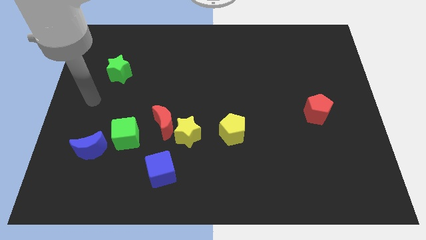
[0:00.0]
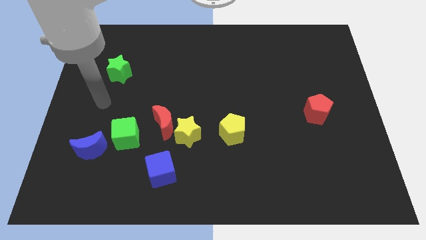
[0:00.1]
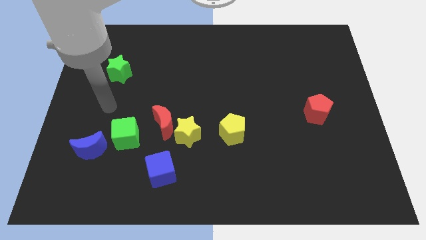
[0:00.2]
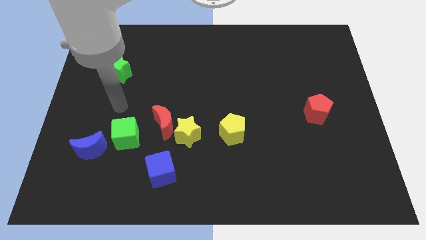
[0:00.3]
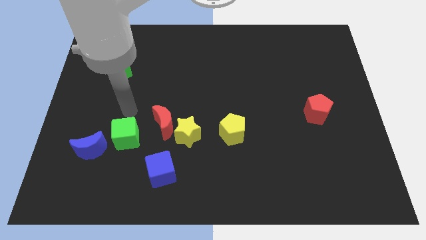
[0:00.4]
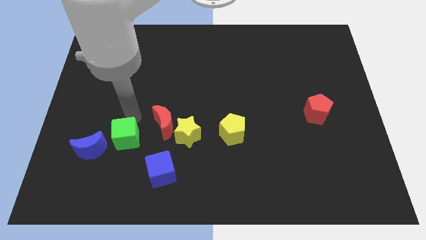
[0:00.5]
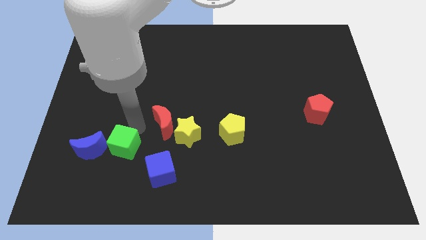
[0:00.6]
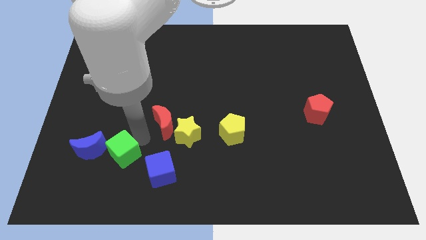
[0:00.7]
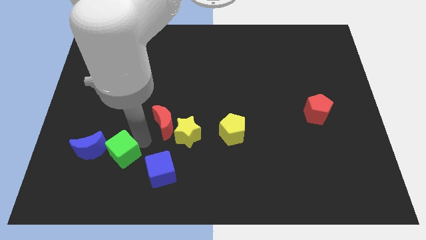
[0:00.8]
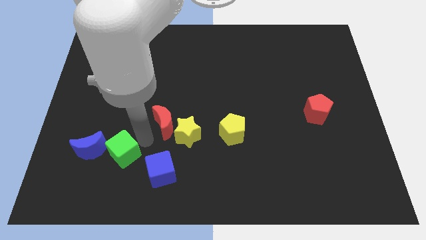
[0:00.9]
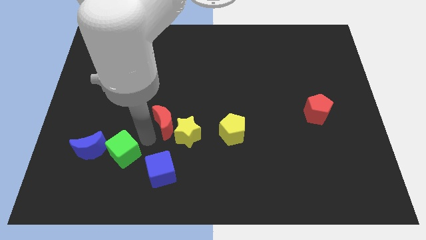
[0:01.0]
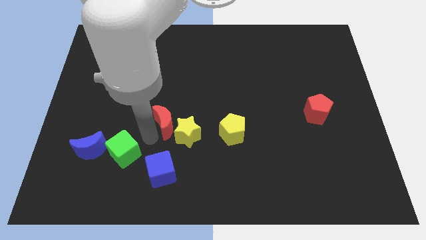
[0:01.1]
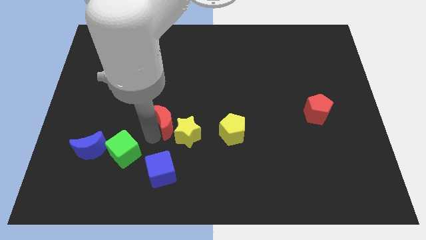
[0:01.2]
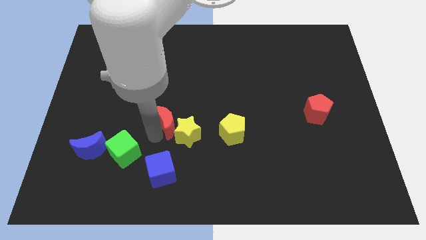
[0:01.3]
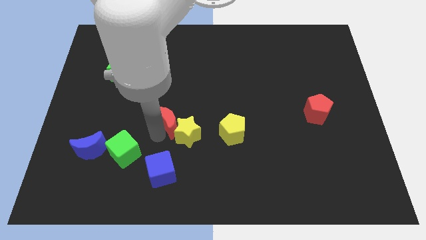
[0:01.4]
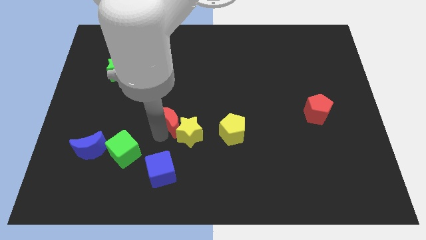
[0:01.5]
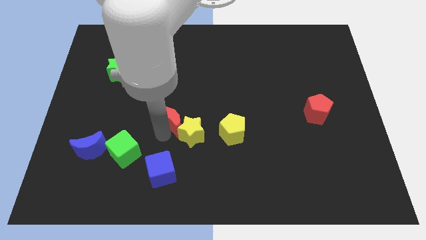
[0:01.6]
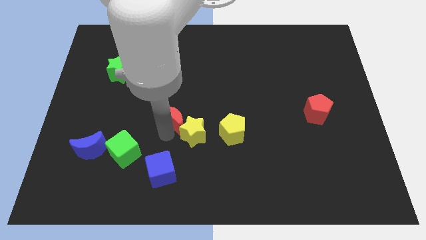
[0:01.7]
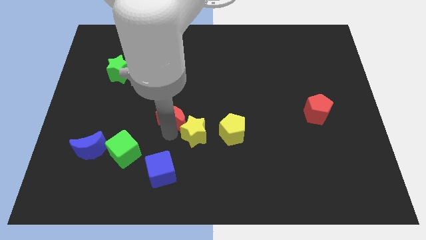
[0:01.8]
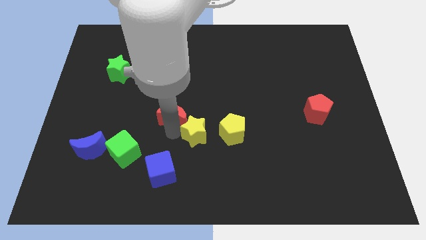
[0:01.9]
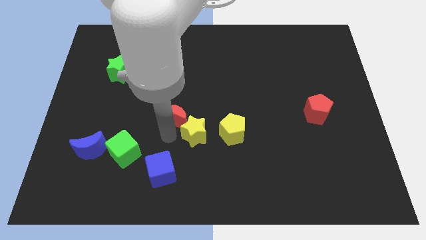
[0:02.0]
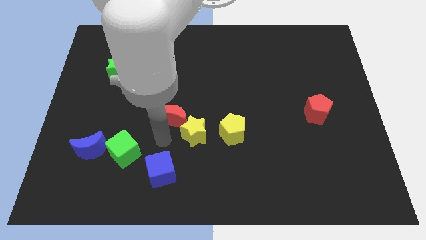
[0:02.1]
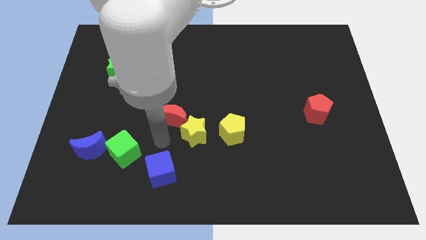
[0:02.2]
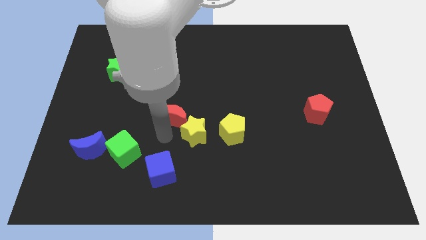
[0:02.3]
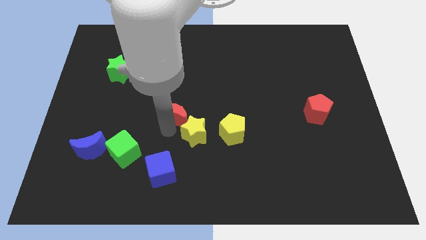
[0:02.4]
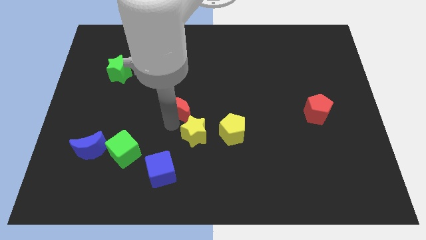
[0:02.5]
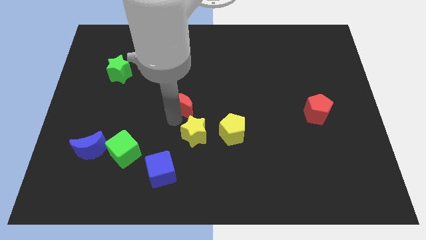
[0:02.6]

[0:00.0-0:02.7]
pull the red moon apart from the yellow star and green cube

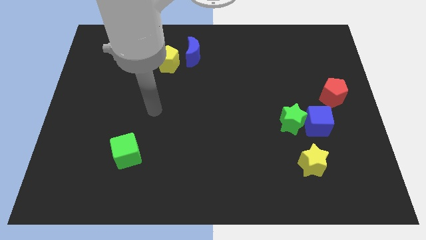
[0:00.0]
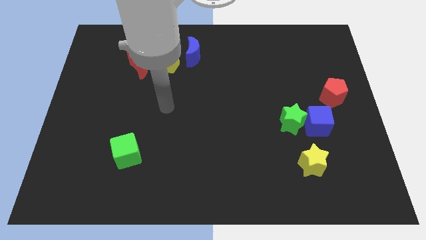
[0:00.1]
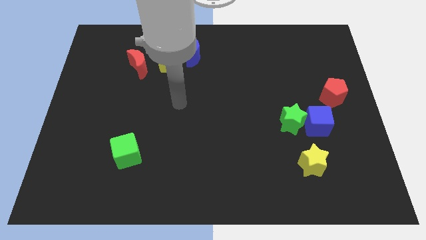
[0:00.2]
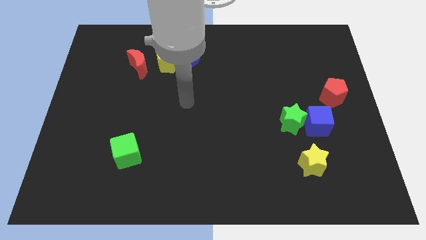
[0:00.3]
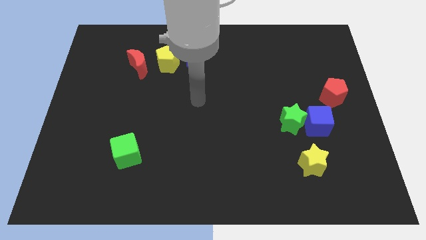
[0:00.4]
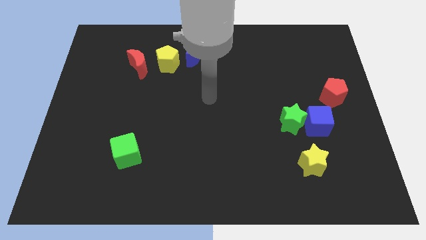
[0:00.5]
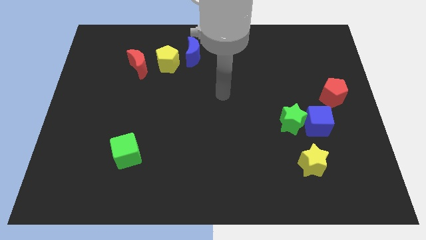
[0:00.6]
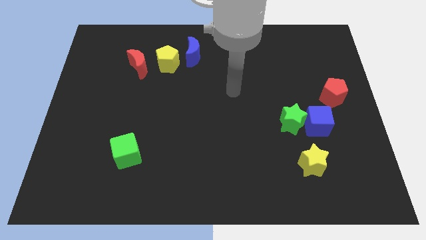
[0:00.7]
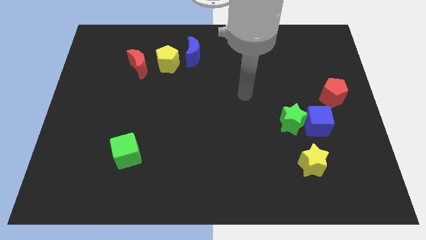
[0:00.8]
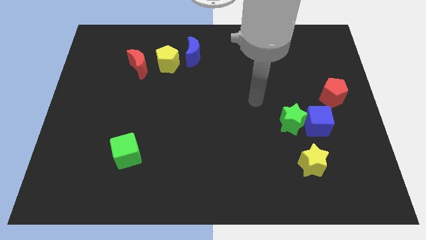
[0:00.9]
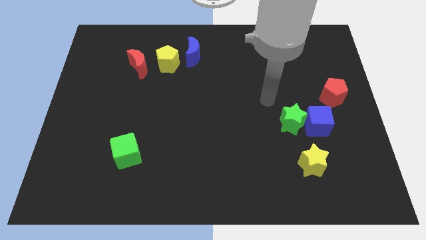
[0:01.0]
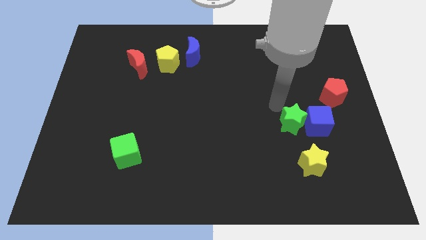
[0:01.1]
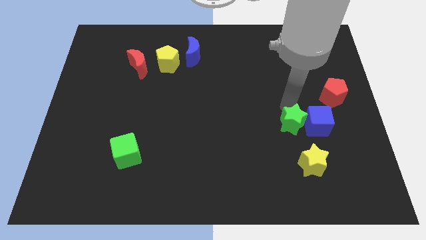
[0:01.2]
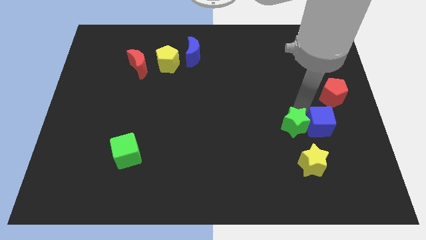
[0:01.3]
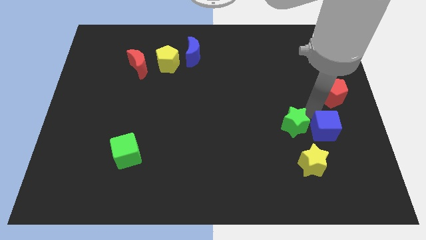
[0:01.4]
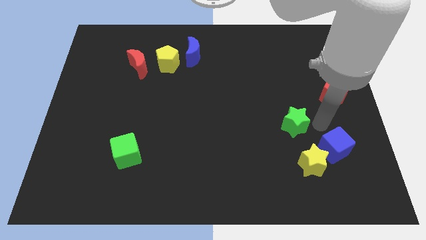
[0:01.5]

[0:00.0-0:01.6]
pull the green star apart from the blue cube

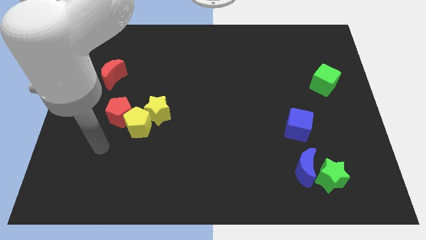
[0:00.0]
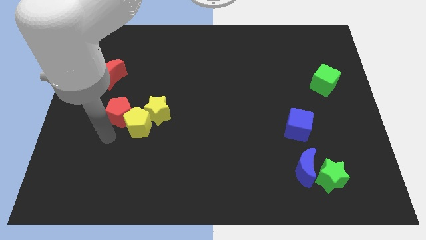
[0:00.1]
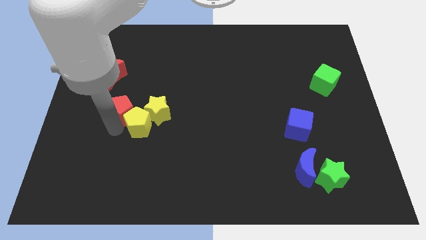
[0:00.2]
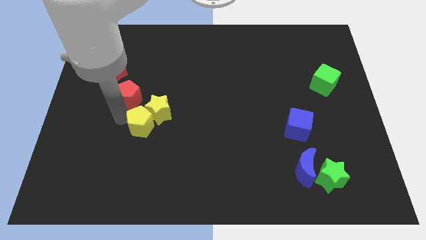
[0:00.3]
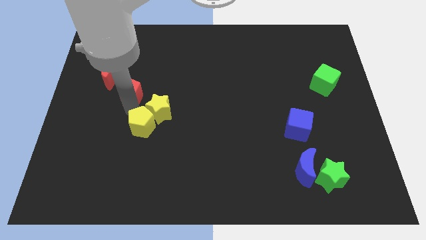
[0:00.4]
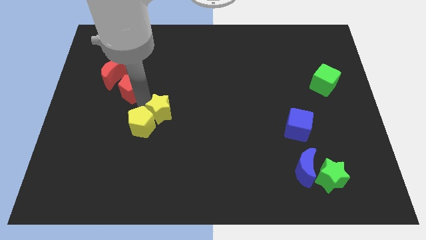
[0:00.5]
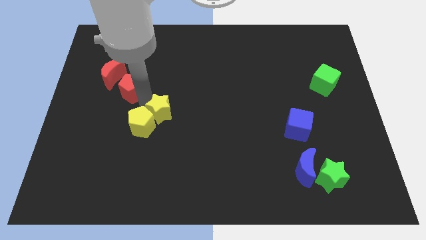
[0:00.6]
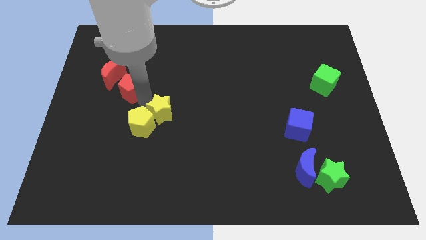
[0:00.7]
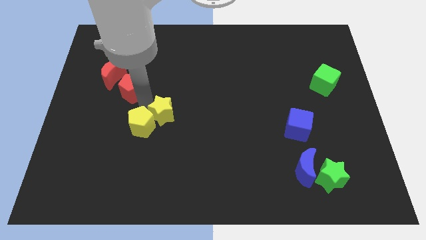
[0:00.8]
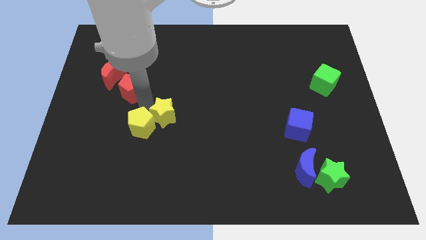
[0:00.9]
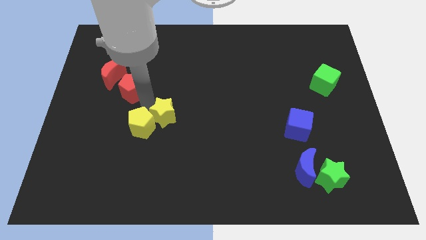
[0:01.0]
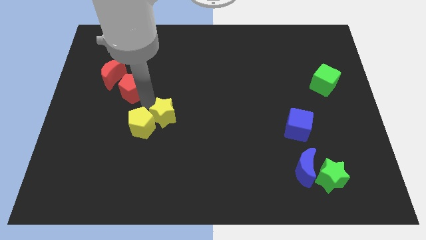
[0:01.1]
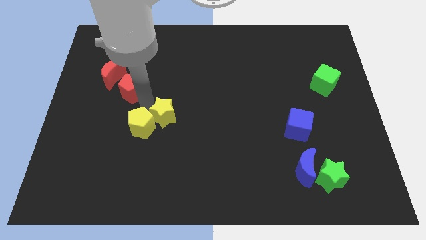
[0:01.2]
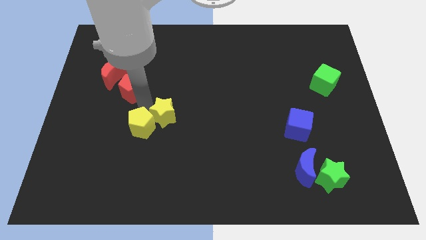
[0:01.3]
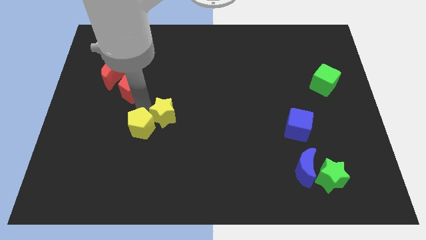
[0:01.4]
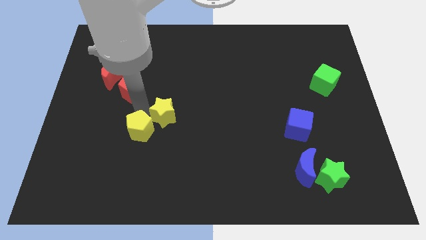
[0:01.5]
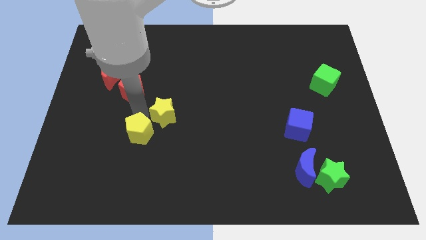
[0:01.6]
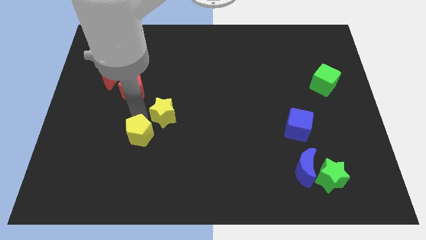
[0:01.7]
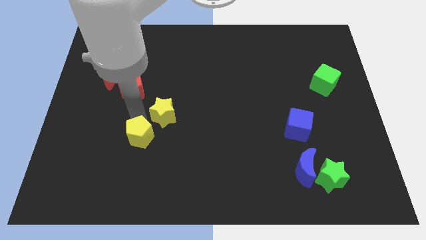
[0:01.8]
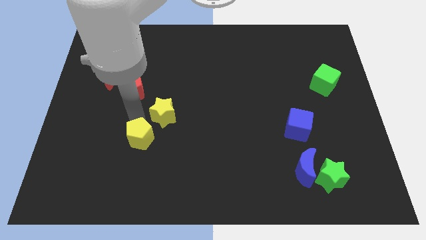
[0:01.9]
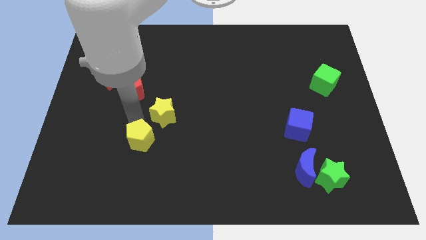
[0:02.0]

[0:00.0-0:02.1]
pull the yellow pentagon apart from the yellow star and red pentagon

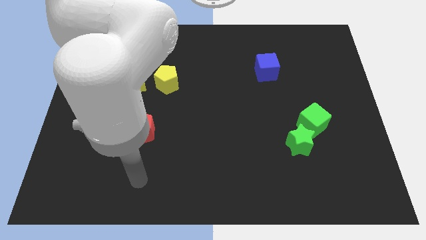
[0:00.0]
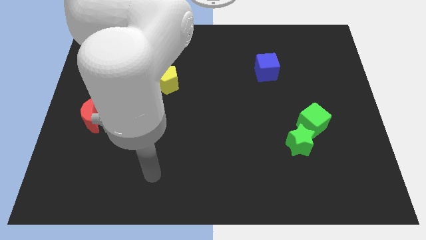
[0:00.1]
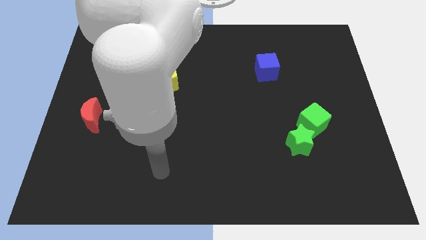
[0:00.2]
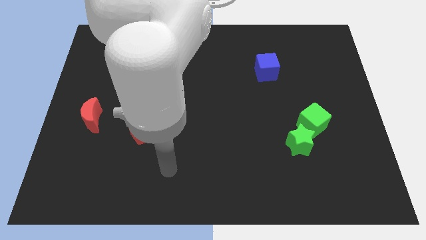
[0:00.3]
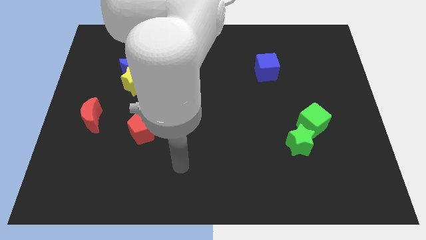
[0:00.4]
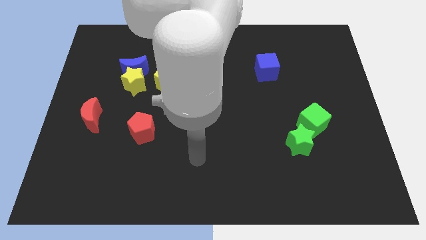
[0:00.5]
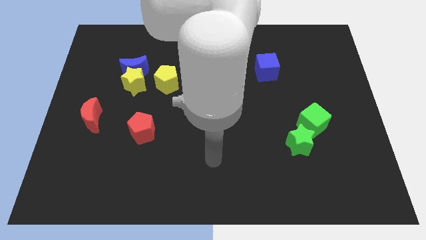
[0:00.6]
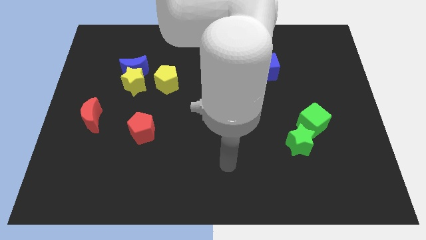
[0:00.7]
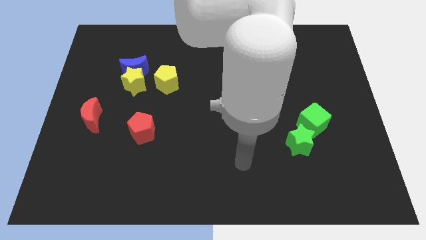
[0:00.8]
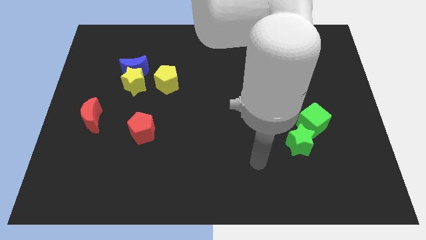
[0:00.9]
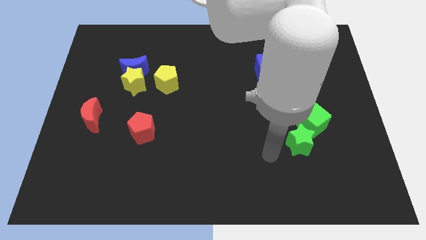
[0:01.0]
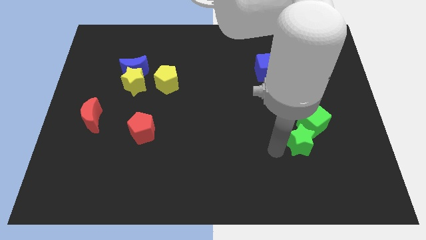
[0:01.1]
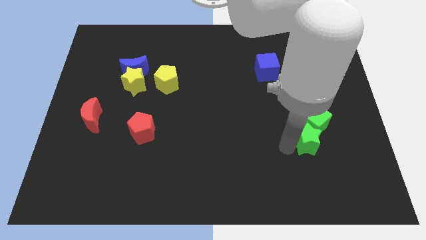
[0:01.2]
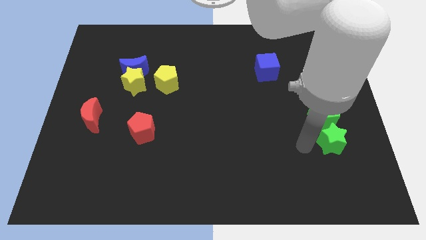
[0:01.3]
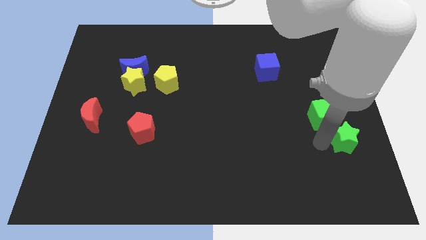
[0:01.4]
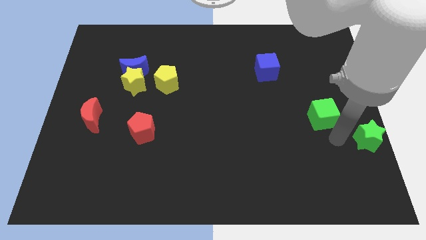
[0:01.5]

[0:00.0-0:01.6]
move the green cube away from the green star

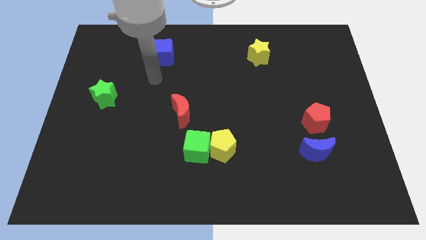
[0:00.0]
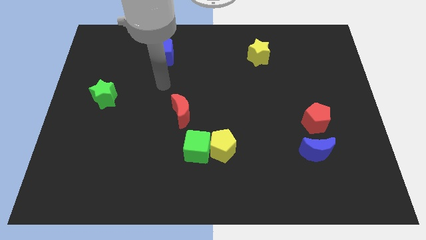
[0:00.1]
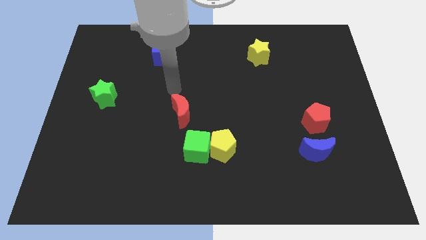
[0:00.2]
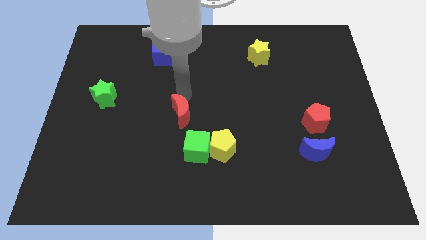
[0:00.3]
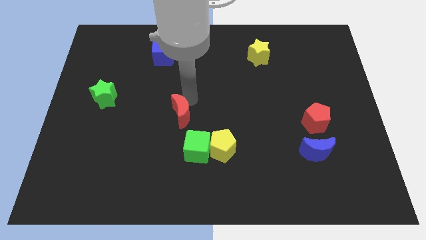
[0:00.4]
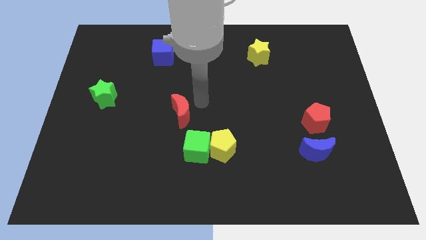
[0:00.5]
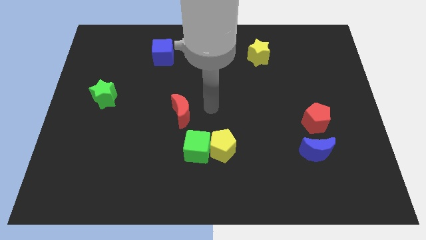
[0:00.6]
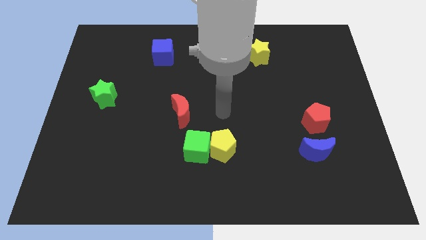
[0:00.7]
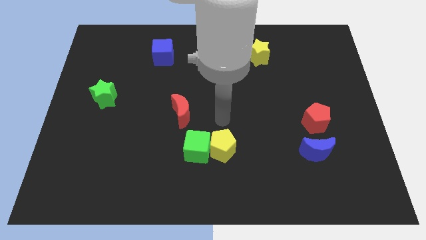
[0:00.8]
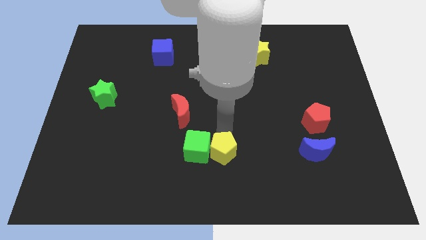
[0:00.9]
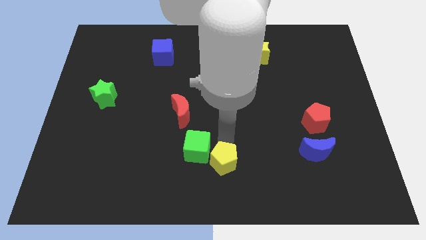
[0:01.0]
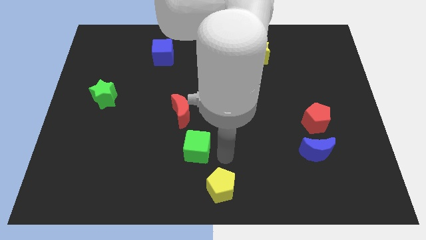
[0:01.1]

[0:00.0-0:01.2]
move the green cube away from the yellow pentagon

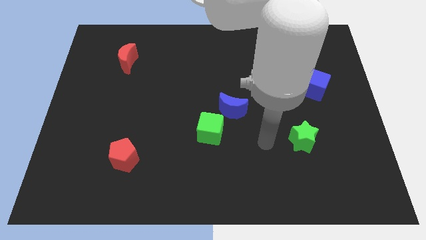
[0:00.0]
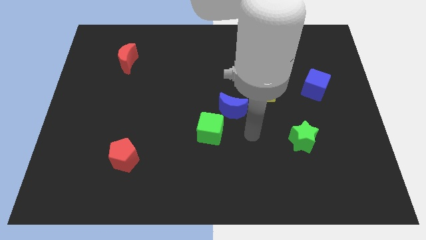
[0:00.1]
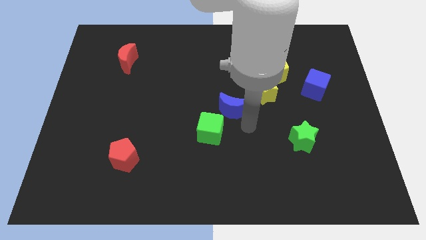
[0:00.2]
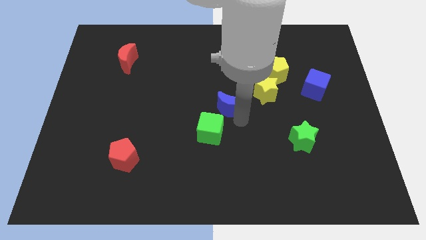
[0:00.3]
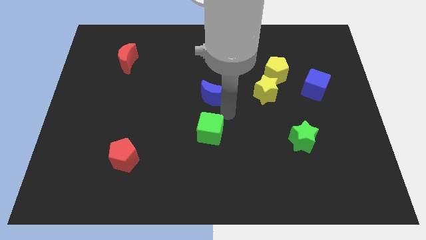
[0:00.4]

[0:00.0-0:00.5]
move the green cube away from the blue moon
